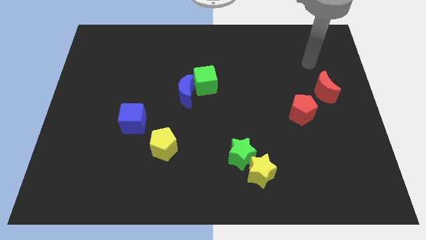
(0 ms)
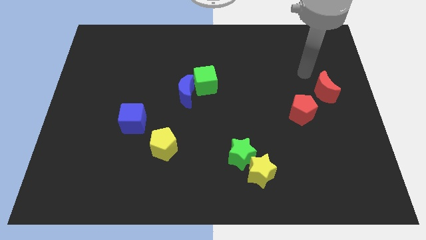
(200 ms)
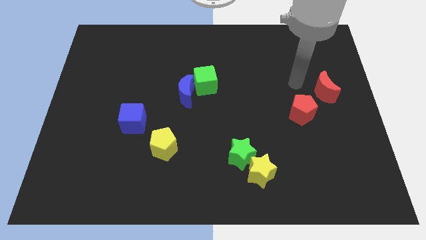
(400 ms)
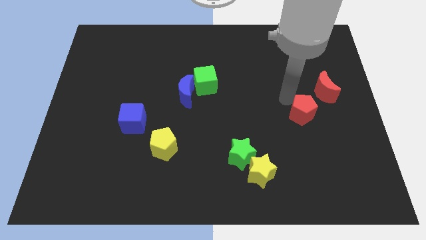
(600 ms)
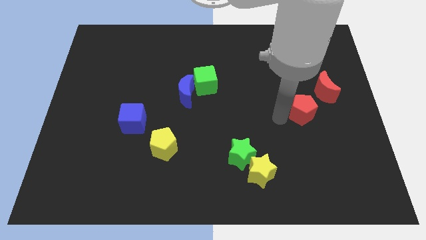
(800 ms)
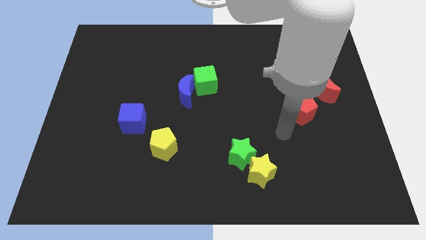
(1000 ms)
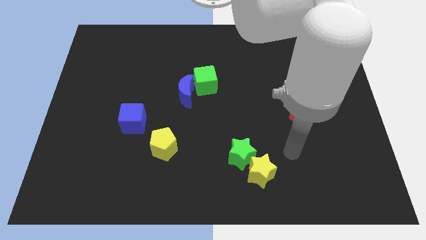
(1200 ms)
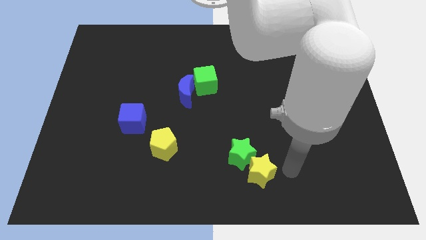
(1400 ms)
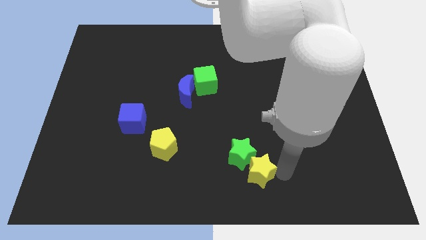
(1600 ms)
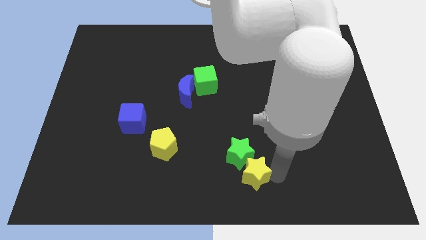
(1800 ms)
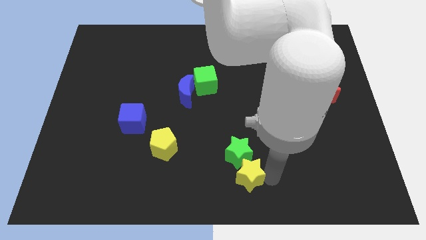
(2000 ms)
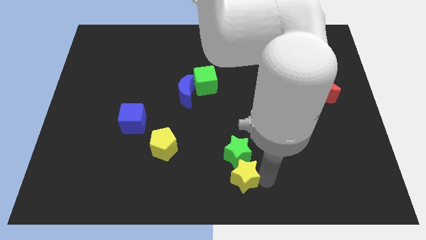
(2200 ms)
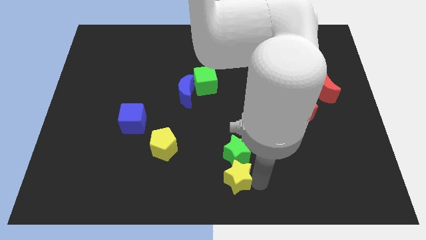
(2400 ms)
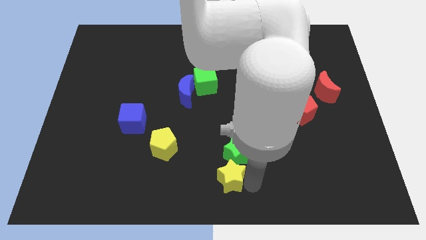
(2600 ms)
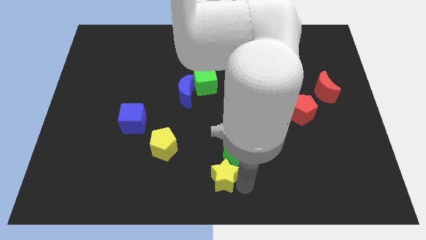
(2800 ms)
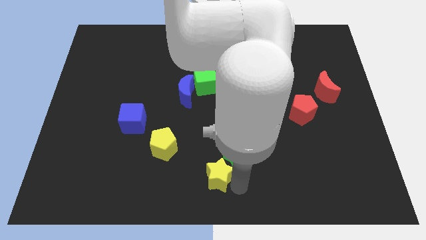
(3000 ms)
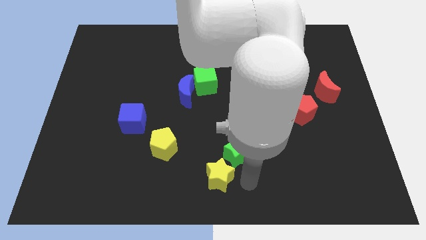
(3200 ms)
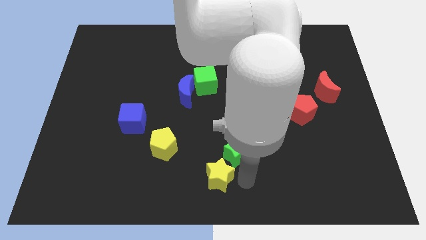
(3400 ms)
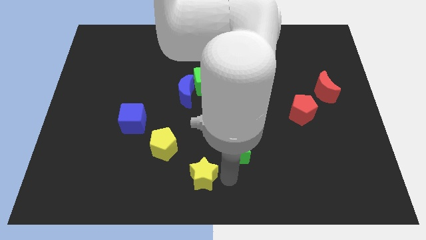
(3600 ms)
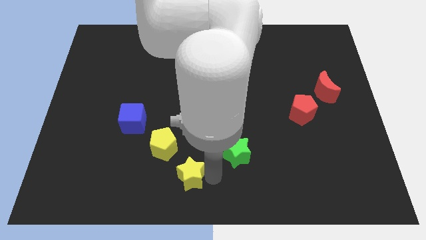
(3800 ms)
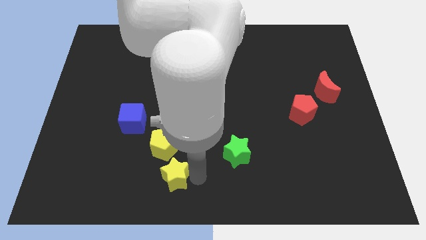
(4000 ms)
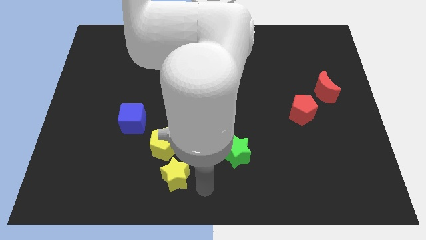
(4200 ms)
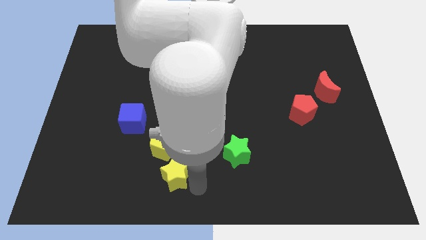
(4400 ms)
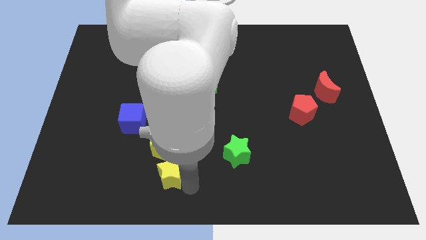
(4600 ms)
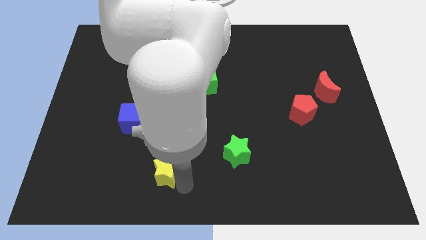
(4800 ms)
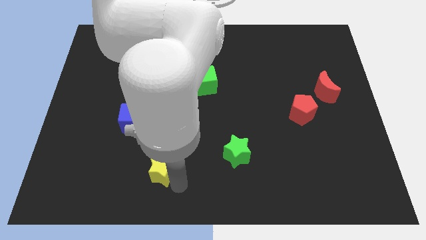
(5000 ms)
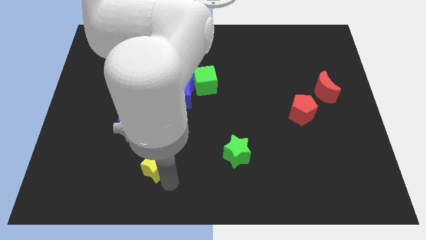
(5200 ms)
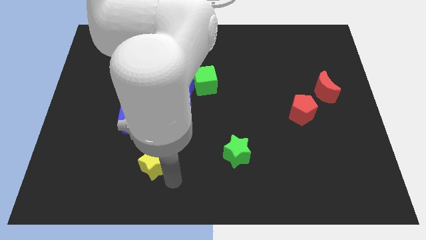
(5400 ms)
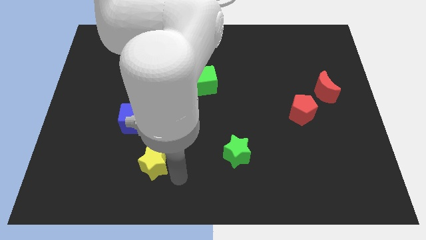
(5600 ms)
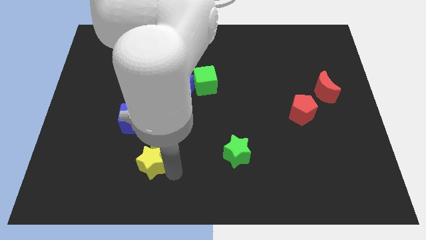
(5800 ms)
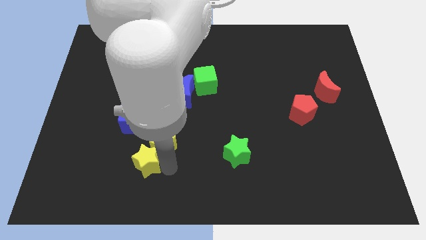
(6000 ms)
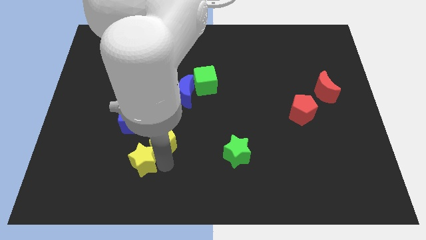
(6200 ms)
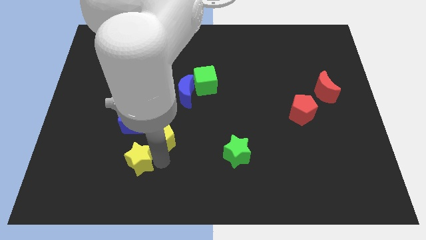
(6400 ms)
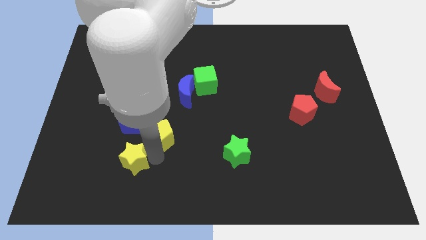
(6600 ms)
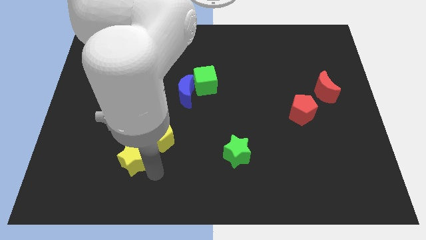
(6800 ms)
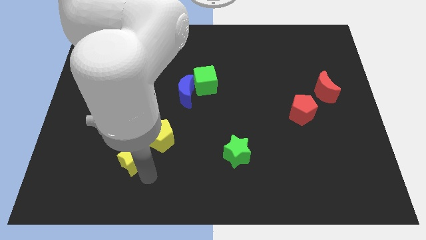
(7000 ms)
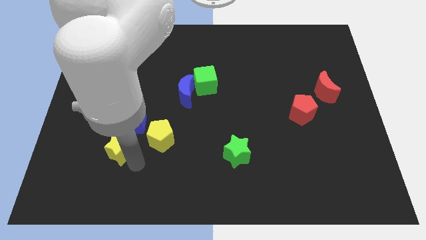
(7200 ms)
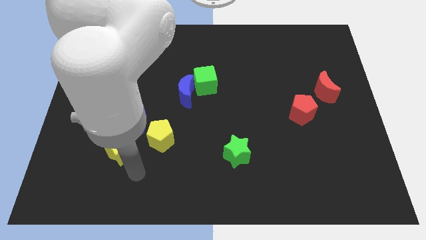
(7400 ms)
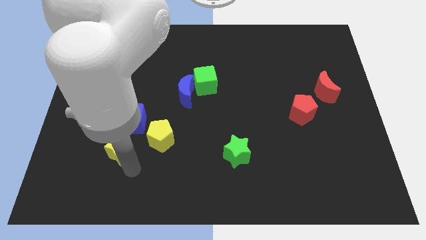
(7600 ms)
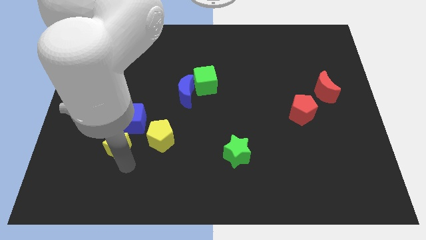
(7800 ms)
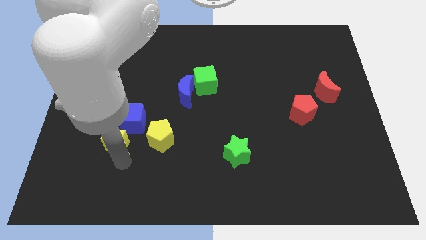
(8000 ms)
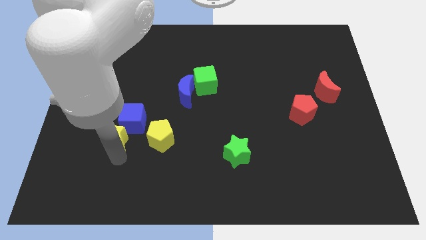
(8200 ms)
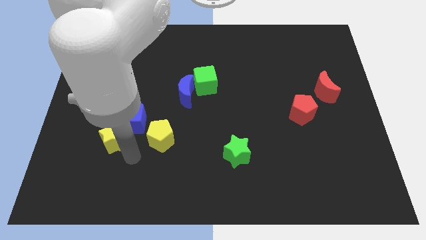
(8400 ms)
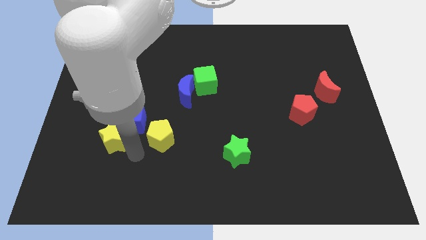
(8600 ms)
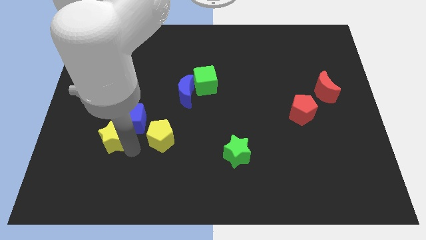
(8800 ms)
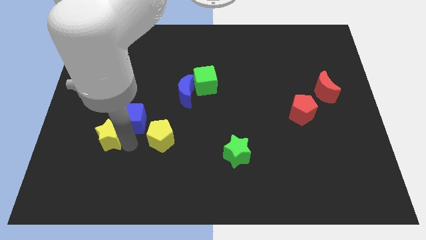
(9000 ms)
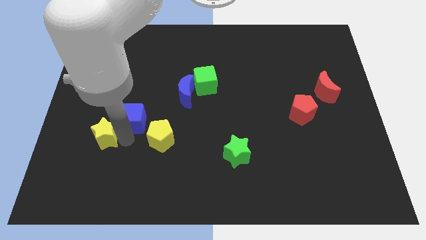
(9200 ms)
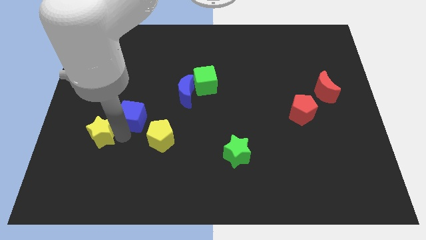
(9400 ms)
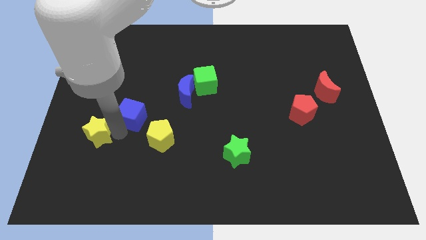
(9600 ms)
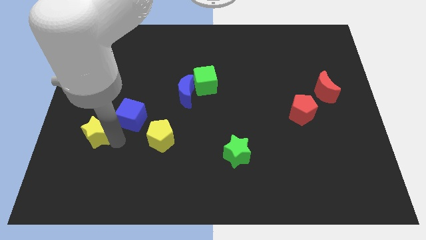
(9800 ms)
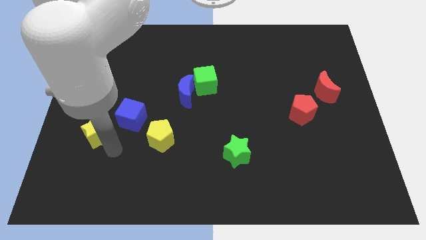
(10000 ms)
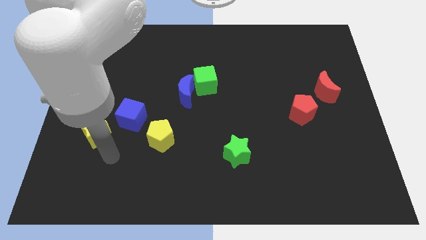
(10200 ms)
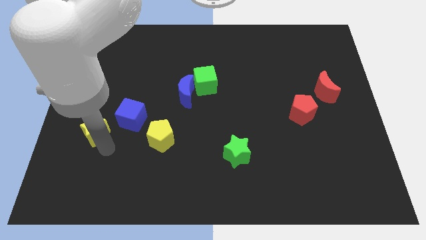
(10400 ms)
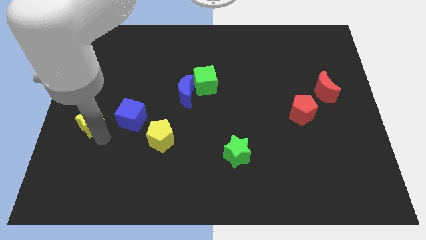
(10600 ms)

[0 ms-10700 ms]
put the yellow star to the left side

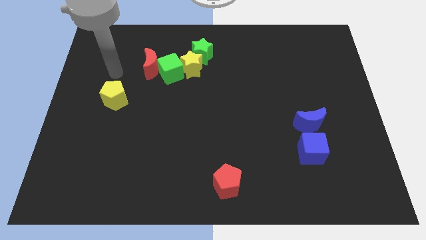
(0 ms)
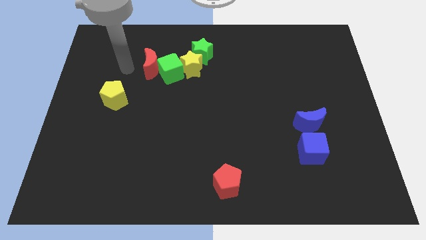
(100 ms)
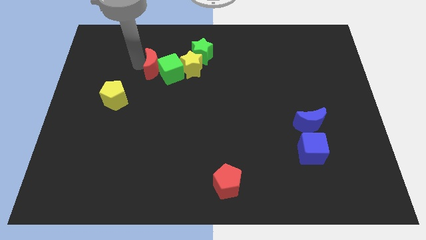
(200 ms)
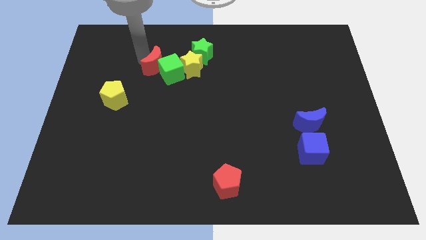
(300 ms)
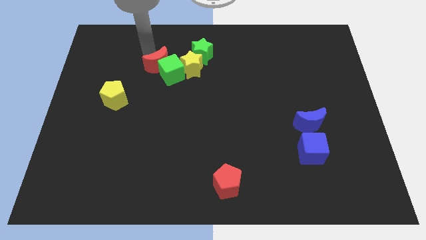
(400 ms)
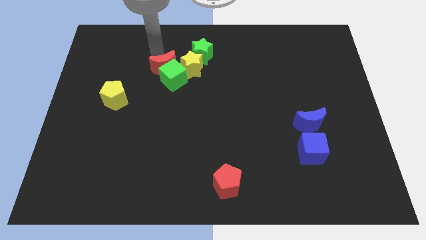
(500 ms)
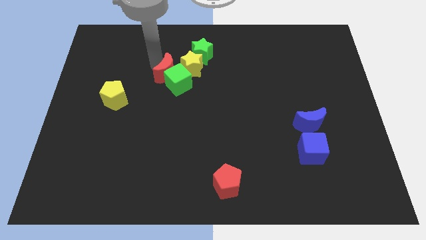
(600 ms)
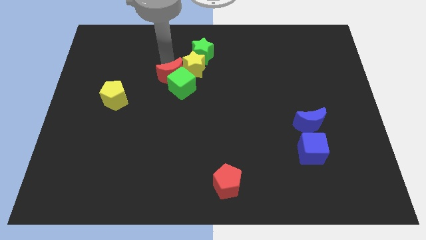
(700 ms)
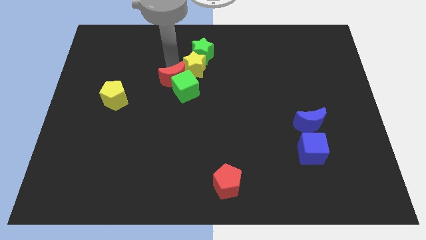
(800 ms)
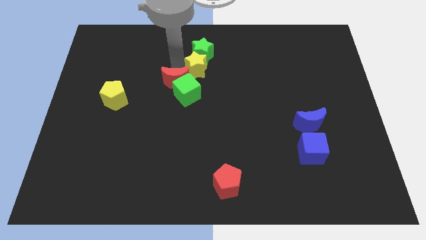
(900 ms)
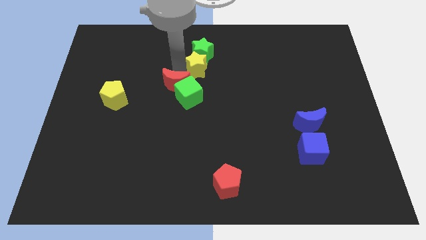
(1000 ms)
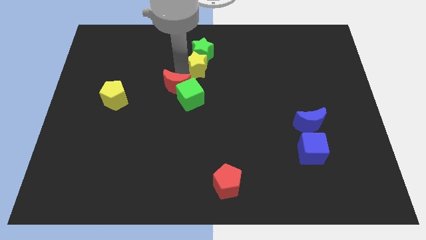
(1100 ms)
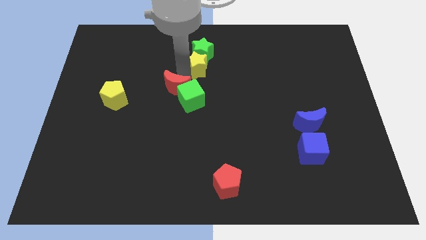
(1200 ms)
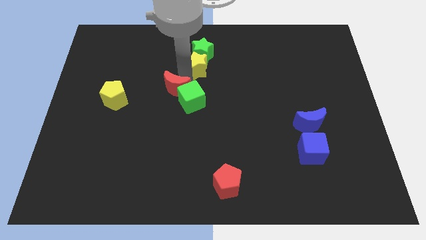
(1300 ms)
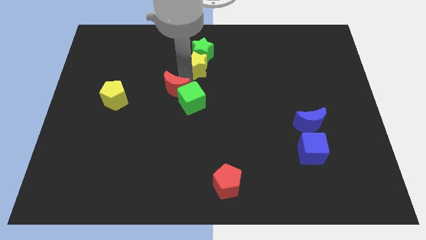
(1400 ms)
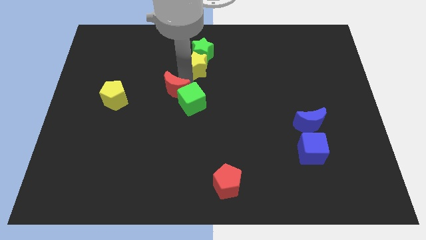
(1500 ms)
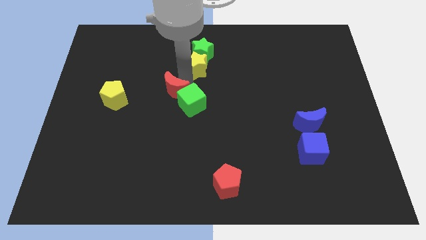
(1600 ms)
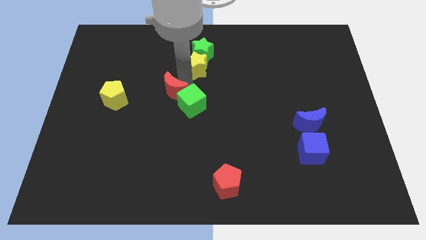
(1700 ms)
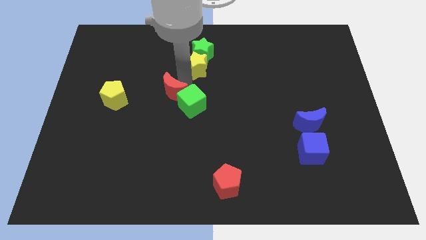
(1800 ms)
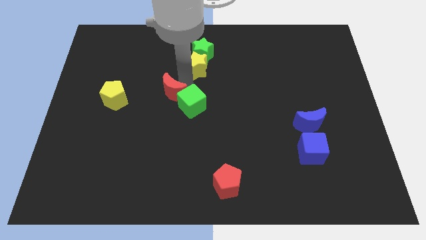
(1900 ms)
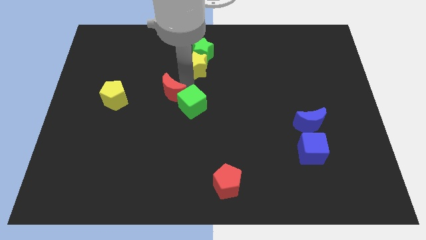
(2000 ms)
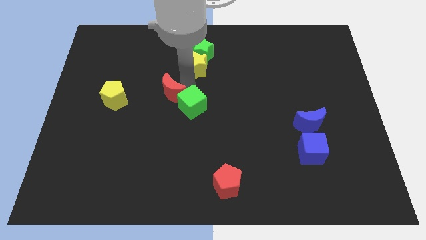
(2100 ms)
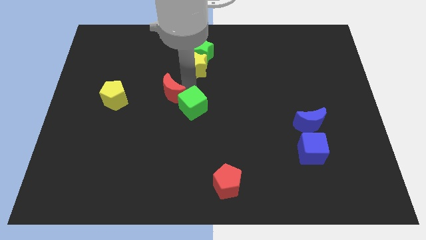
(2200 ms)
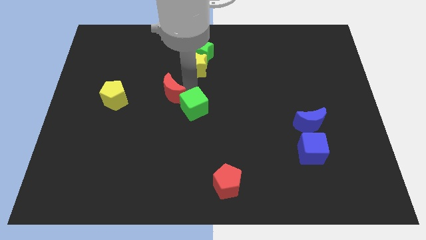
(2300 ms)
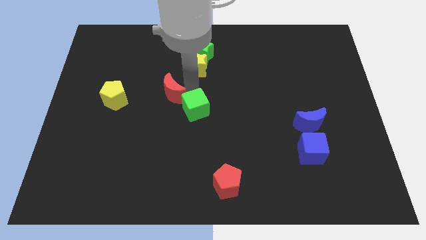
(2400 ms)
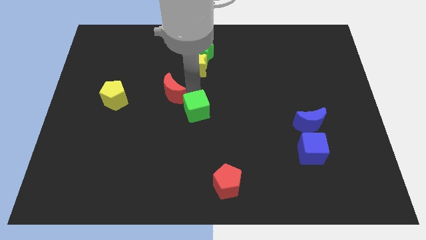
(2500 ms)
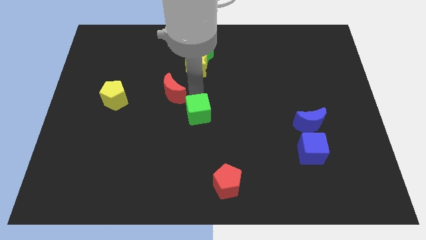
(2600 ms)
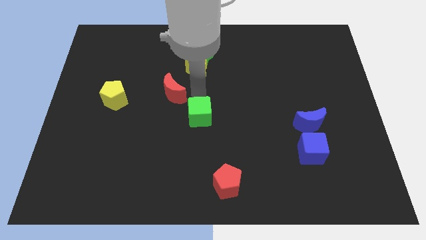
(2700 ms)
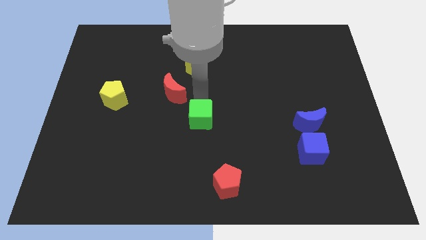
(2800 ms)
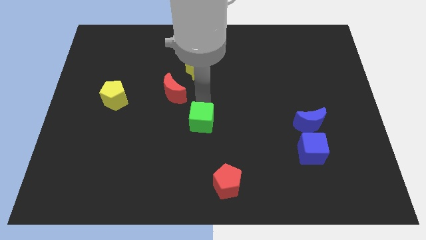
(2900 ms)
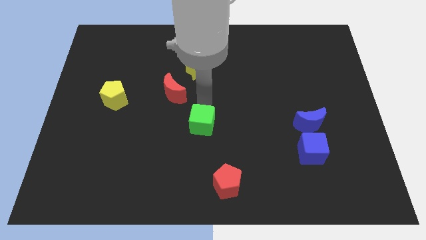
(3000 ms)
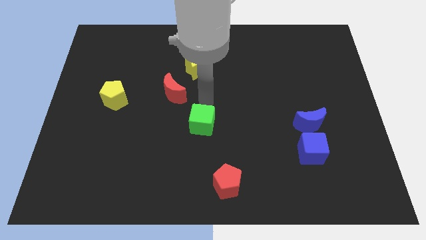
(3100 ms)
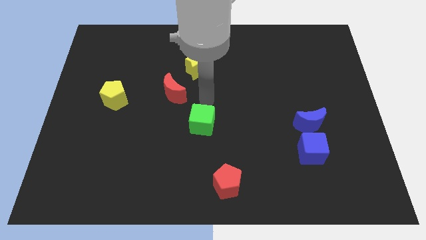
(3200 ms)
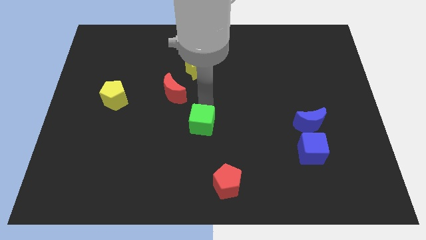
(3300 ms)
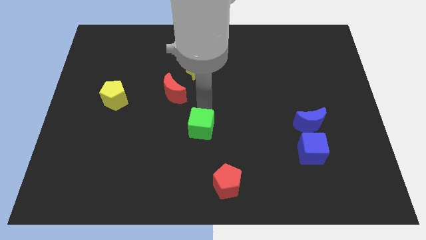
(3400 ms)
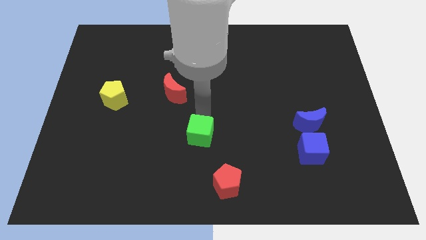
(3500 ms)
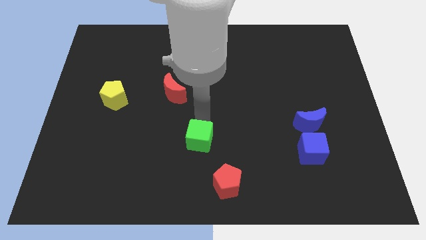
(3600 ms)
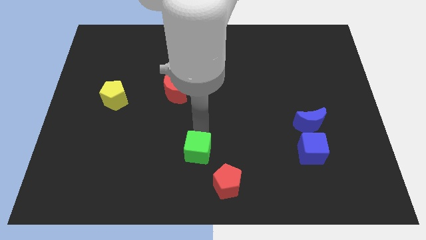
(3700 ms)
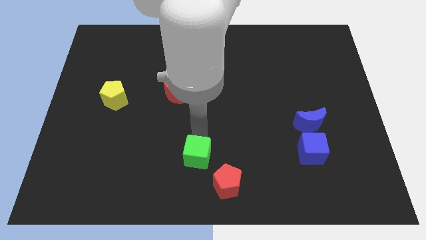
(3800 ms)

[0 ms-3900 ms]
move the green cube to the bottom
